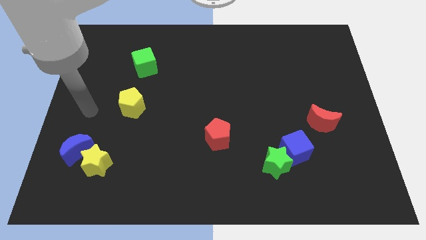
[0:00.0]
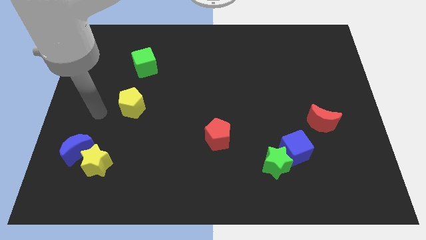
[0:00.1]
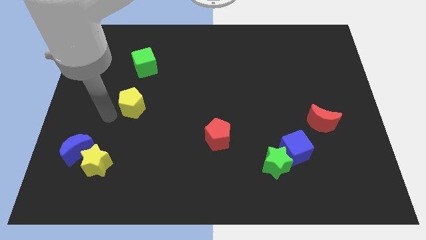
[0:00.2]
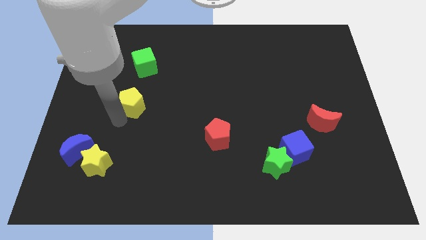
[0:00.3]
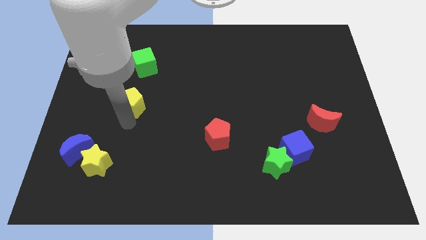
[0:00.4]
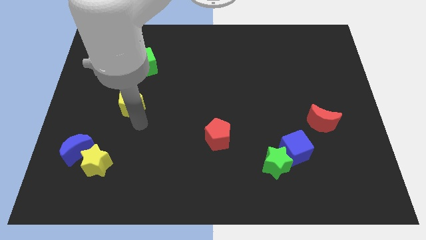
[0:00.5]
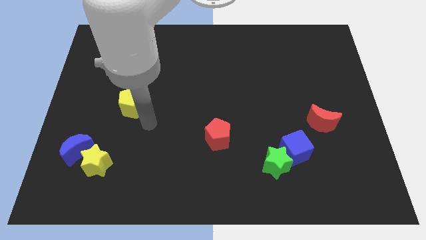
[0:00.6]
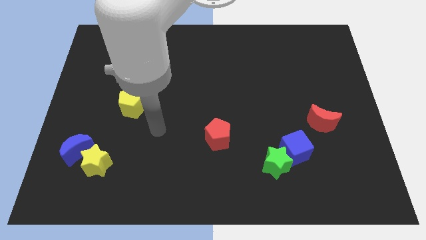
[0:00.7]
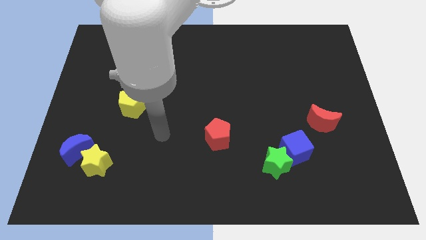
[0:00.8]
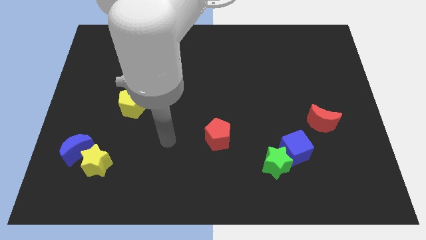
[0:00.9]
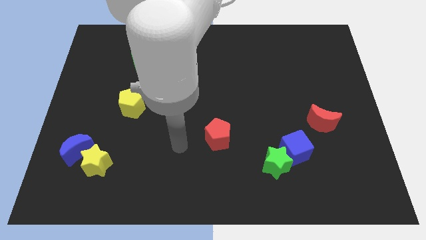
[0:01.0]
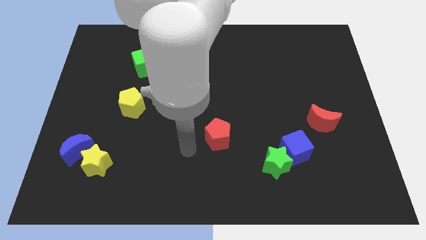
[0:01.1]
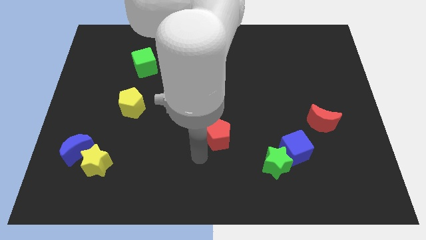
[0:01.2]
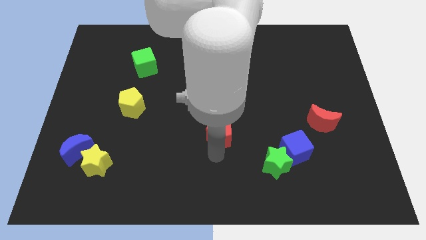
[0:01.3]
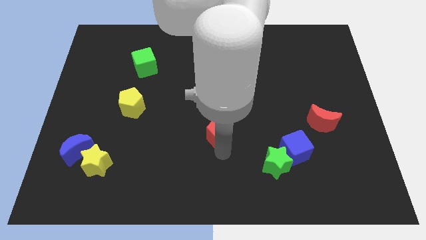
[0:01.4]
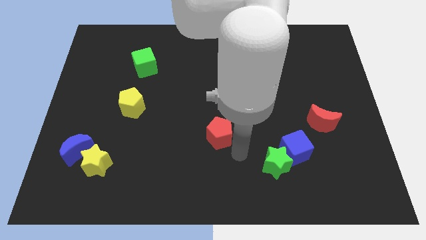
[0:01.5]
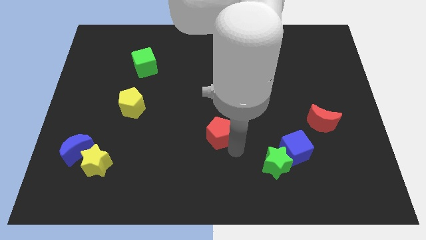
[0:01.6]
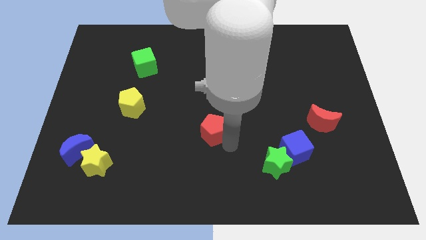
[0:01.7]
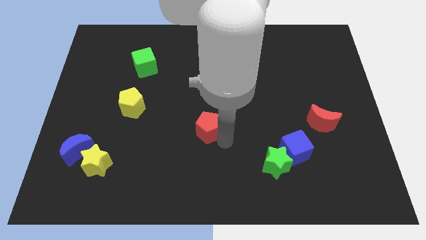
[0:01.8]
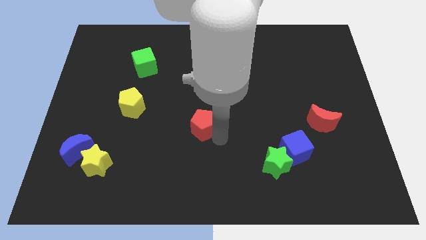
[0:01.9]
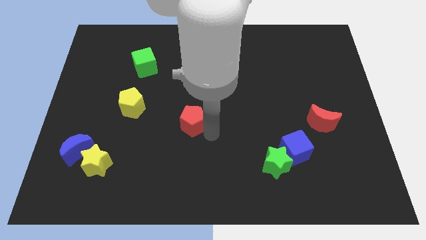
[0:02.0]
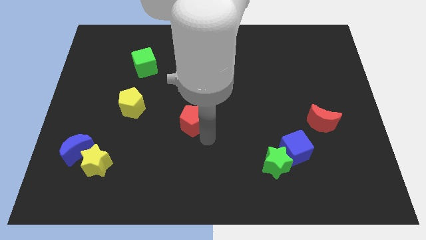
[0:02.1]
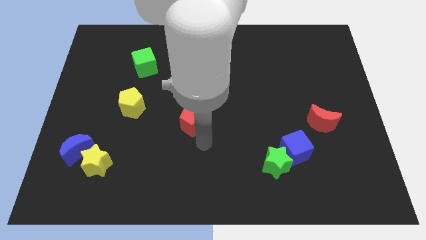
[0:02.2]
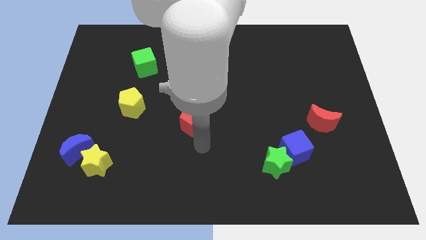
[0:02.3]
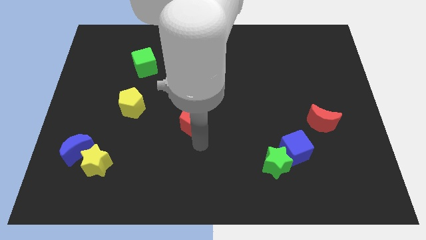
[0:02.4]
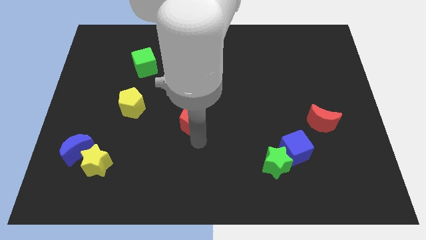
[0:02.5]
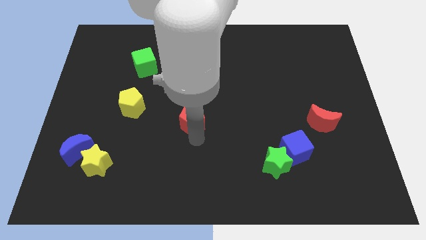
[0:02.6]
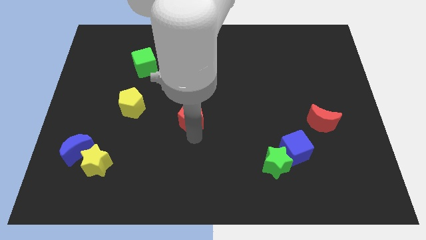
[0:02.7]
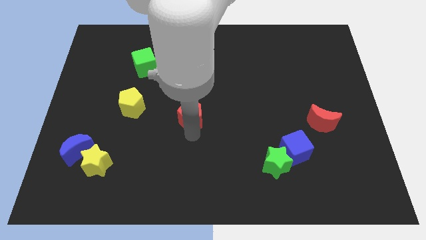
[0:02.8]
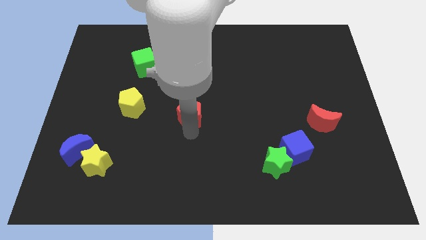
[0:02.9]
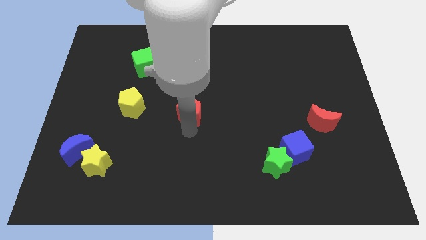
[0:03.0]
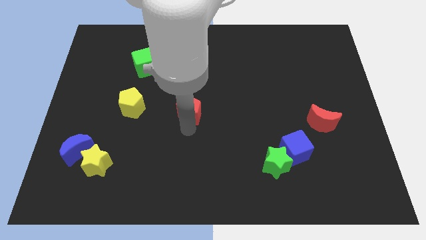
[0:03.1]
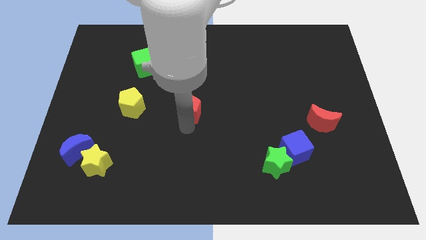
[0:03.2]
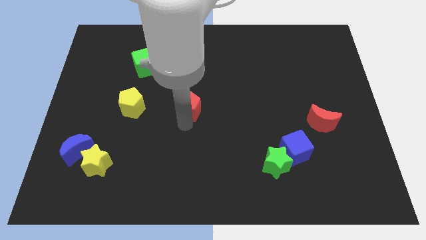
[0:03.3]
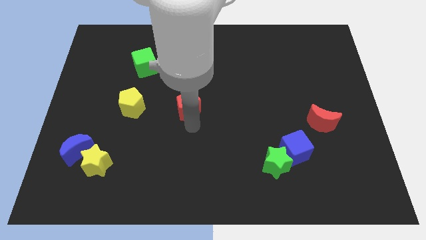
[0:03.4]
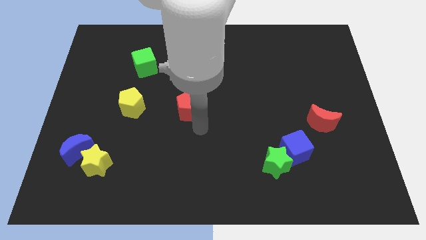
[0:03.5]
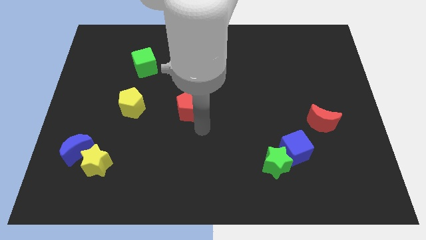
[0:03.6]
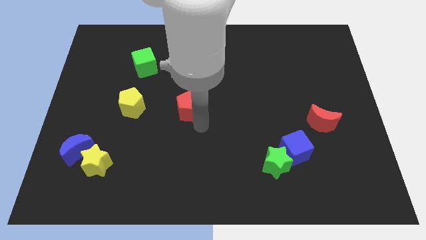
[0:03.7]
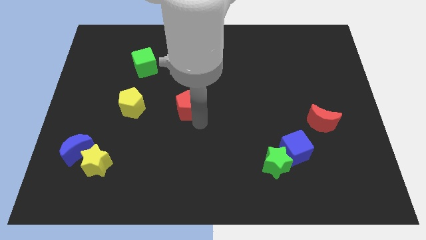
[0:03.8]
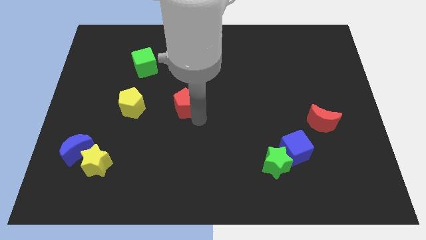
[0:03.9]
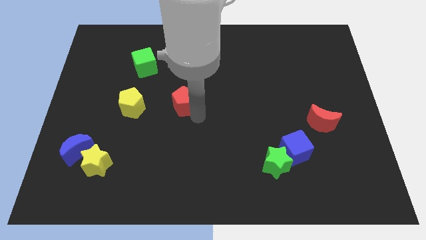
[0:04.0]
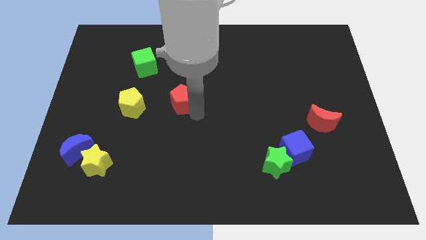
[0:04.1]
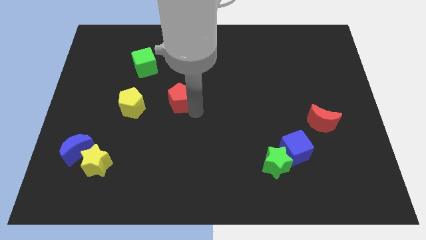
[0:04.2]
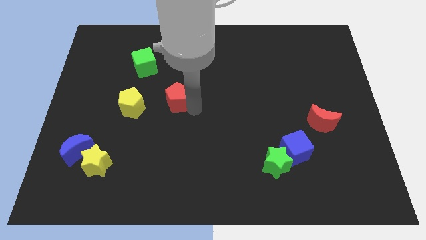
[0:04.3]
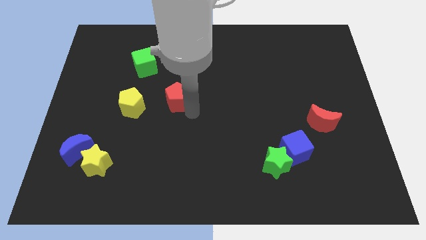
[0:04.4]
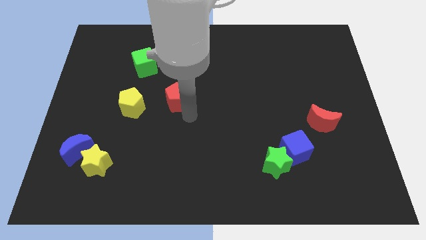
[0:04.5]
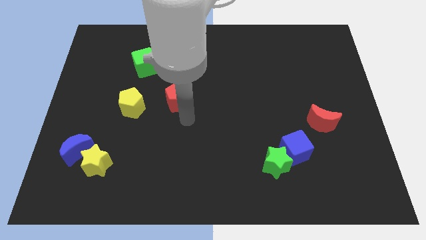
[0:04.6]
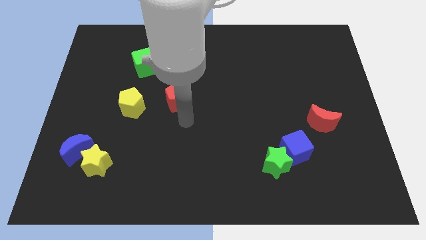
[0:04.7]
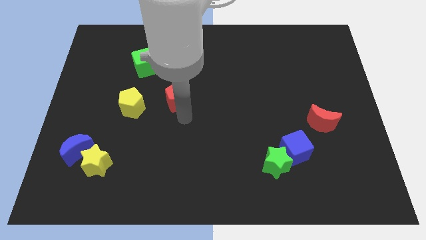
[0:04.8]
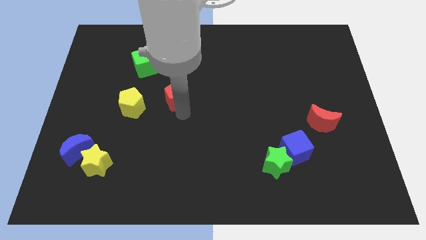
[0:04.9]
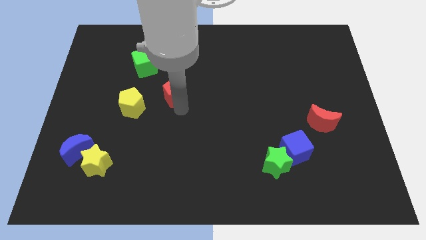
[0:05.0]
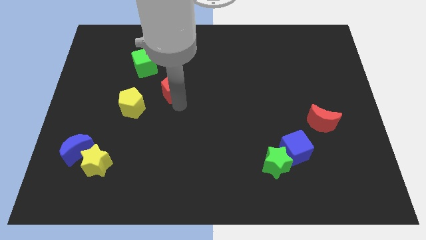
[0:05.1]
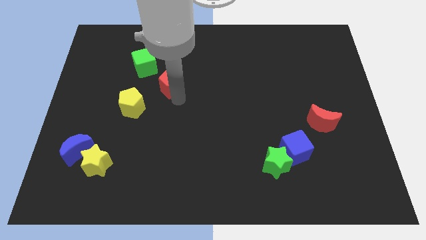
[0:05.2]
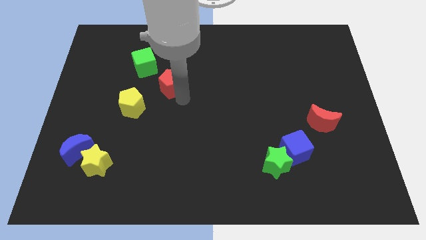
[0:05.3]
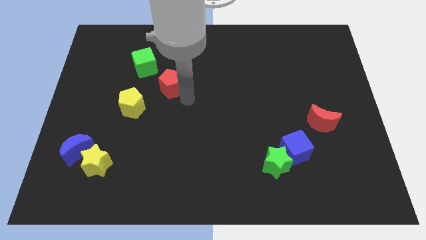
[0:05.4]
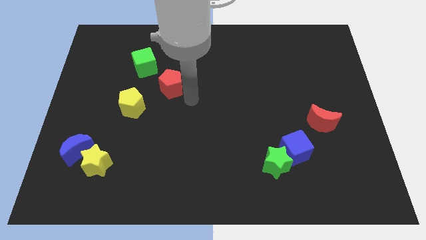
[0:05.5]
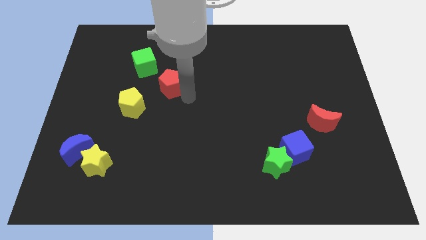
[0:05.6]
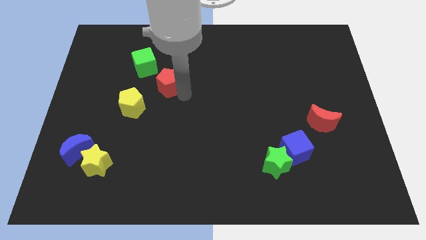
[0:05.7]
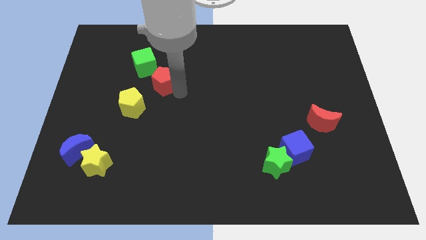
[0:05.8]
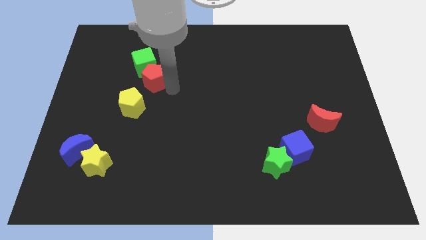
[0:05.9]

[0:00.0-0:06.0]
push the red pentagon to the green cube

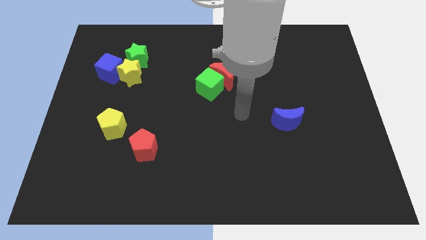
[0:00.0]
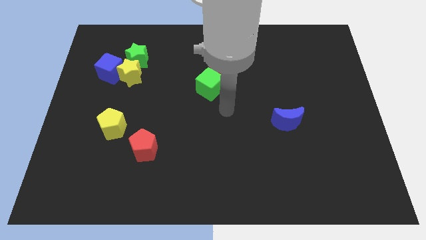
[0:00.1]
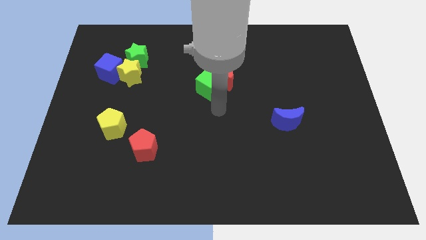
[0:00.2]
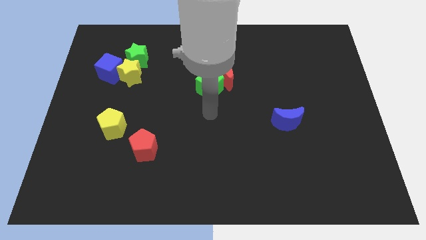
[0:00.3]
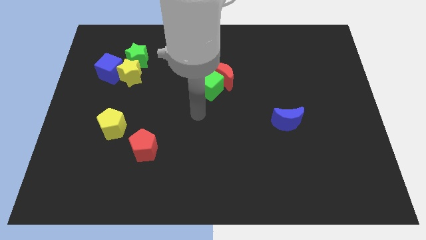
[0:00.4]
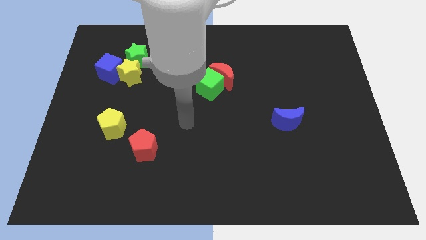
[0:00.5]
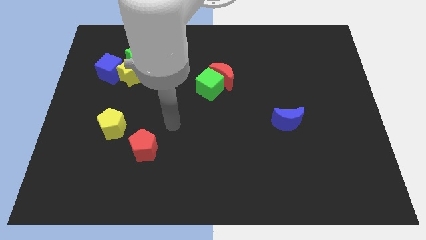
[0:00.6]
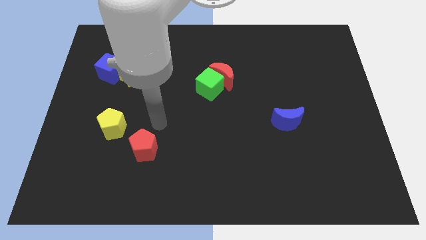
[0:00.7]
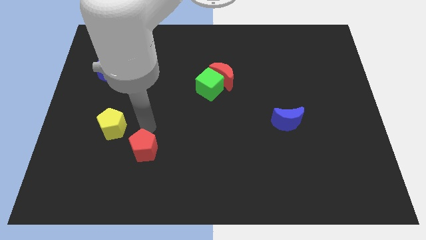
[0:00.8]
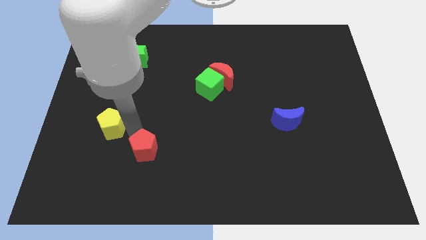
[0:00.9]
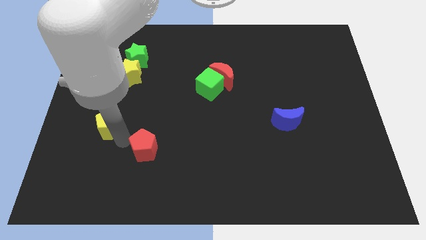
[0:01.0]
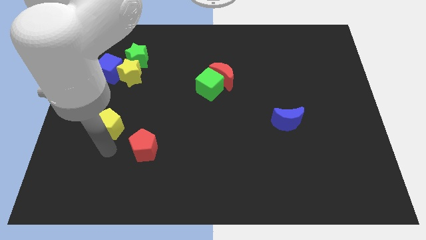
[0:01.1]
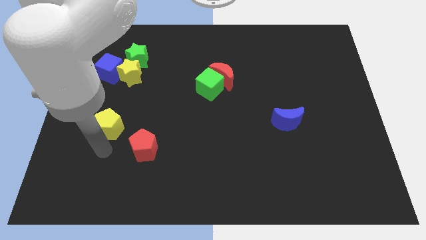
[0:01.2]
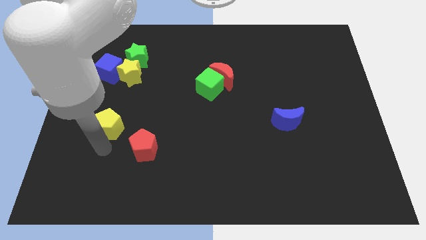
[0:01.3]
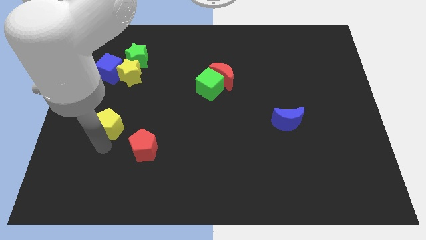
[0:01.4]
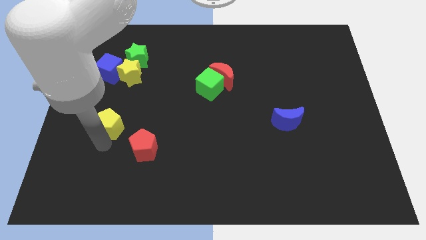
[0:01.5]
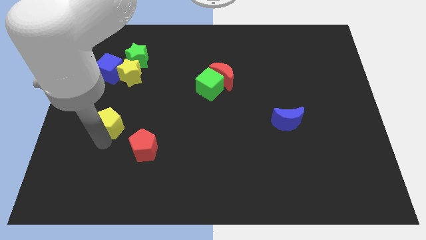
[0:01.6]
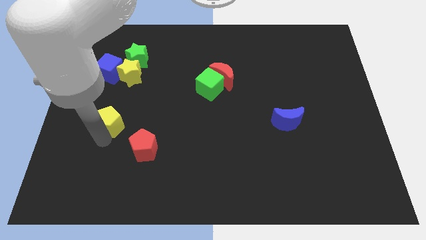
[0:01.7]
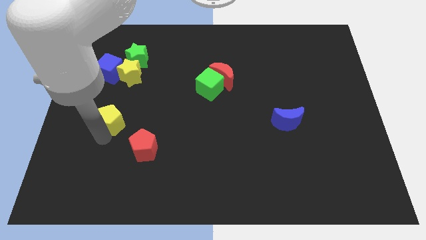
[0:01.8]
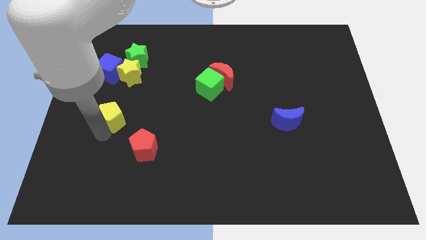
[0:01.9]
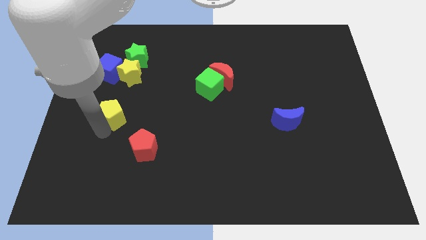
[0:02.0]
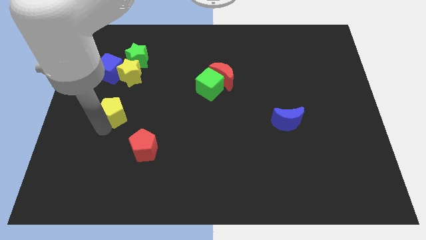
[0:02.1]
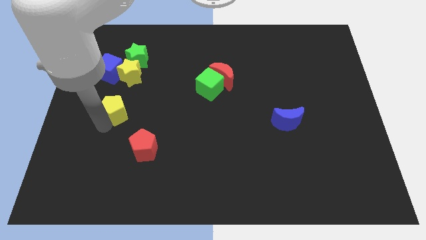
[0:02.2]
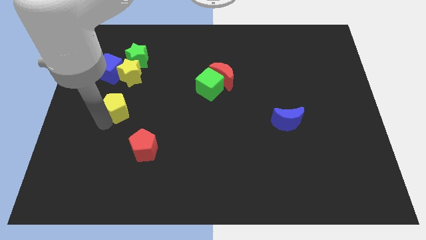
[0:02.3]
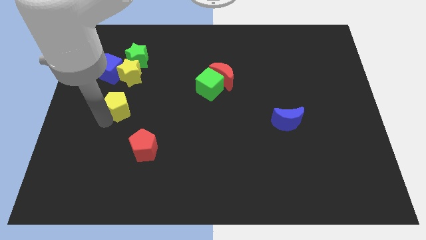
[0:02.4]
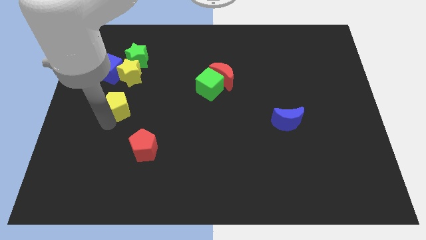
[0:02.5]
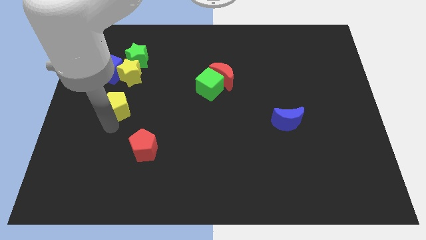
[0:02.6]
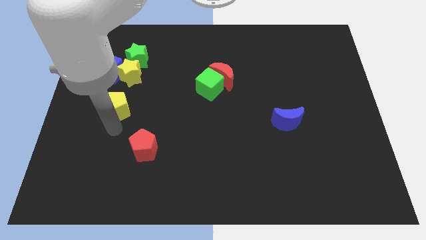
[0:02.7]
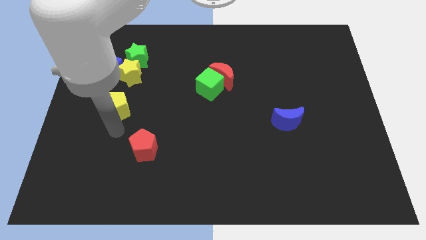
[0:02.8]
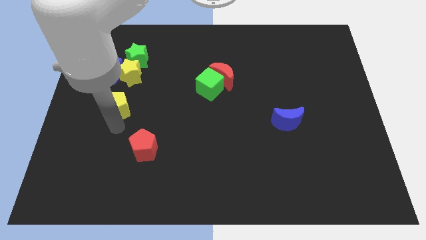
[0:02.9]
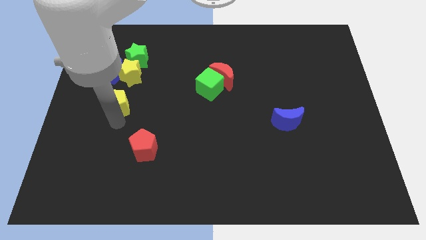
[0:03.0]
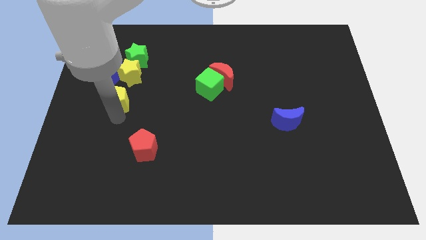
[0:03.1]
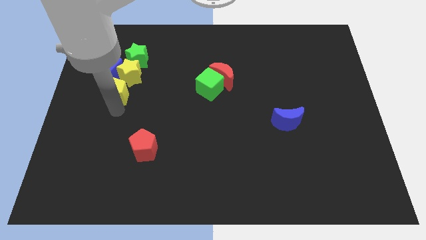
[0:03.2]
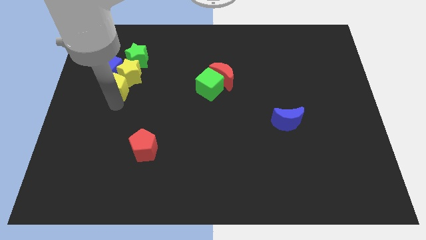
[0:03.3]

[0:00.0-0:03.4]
push the yellow pentagon towards the yellow star
